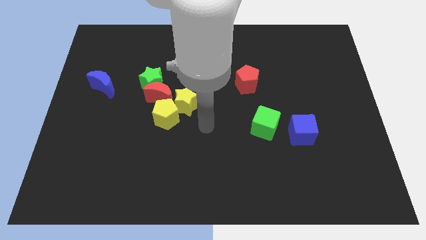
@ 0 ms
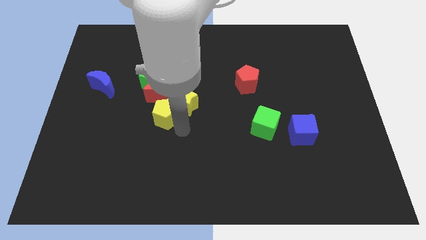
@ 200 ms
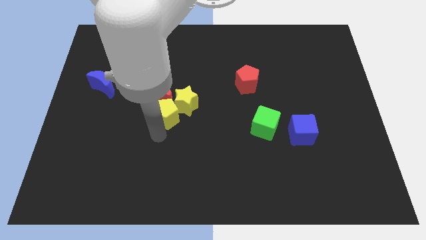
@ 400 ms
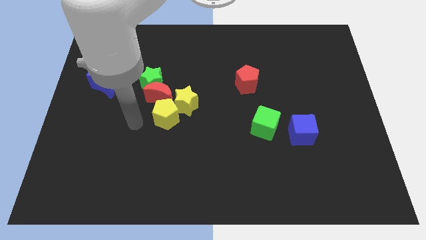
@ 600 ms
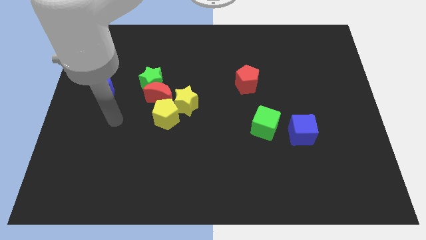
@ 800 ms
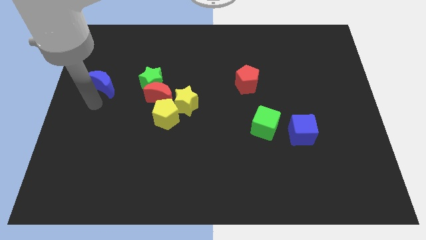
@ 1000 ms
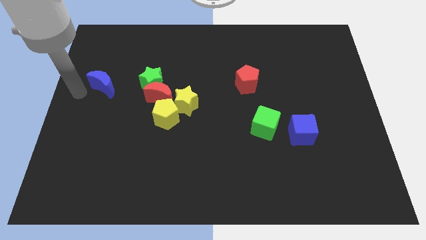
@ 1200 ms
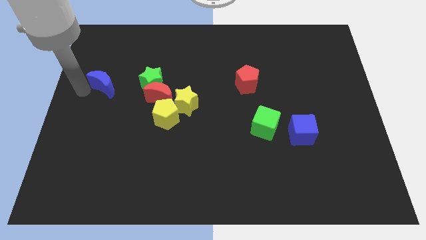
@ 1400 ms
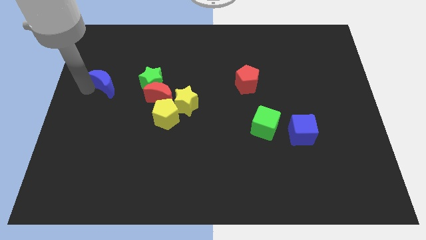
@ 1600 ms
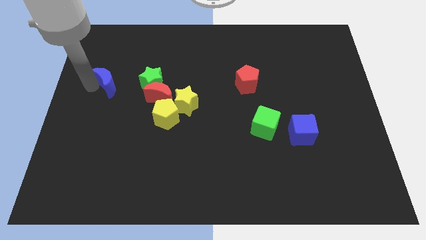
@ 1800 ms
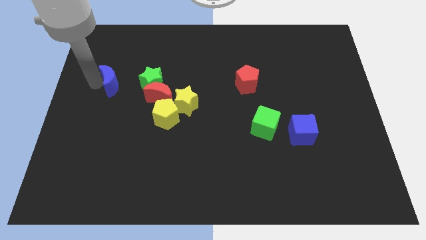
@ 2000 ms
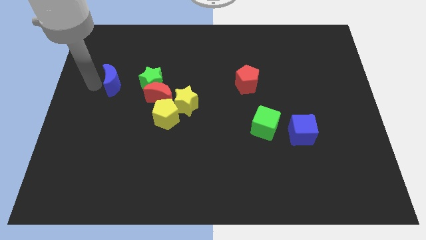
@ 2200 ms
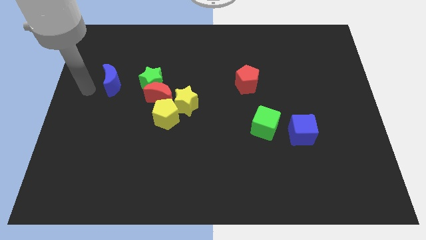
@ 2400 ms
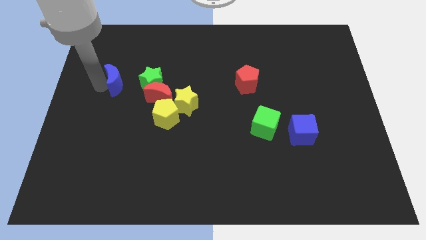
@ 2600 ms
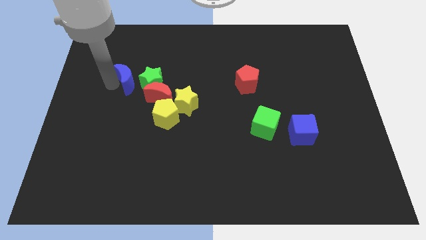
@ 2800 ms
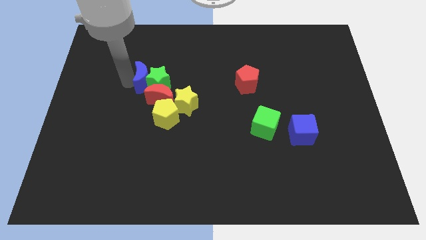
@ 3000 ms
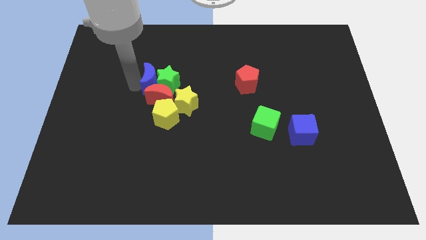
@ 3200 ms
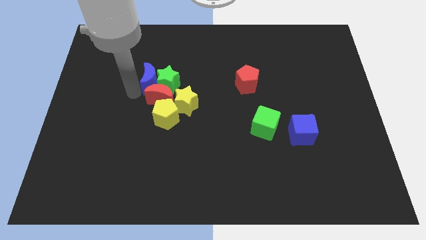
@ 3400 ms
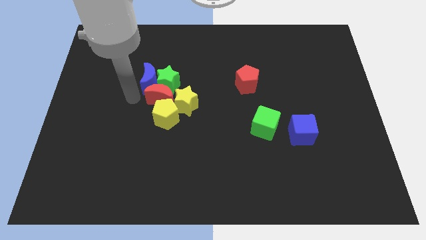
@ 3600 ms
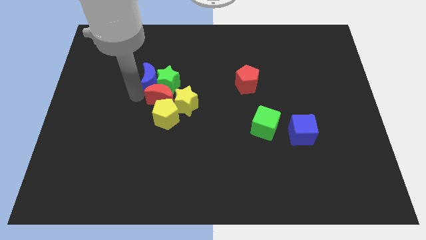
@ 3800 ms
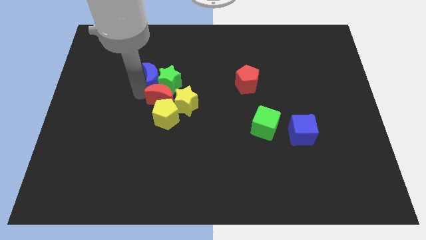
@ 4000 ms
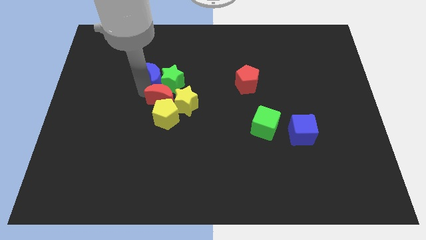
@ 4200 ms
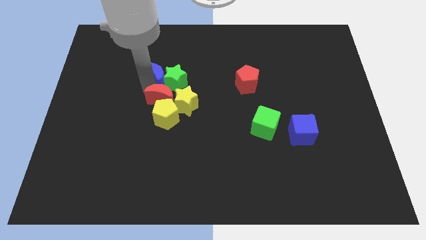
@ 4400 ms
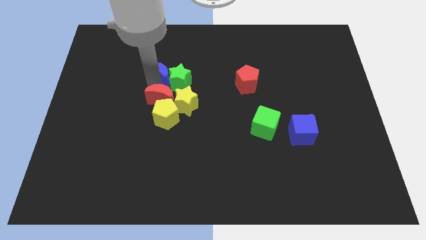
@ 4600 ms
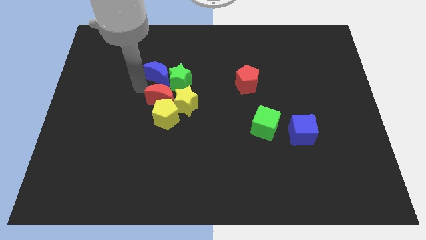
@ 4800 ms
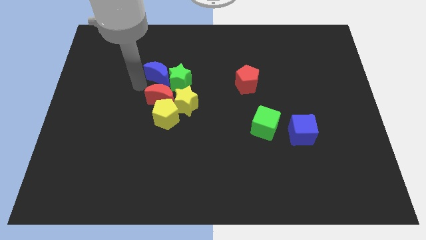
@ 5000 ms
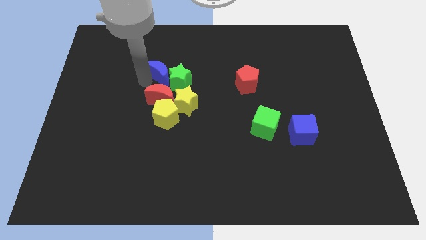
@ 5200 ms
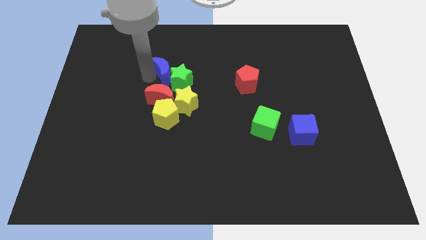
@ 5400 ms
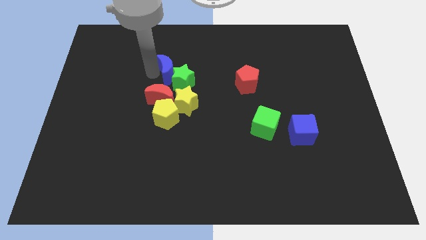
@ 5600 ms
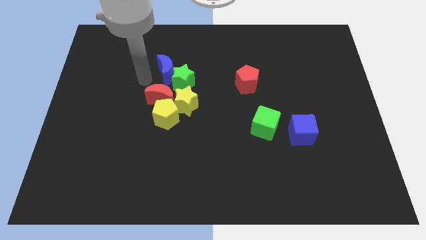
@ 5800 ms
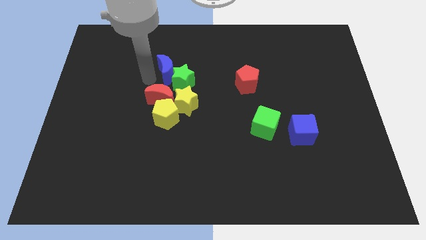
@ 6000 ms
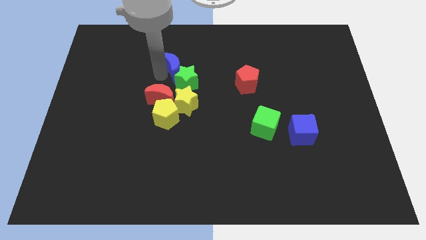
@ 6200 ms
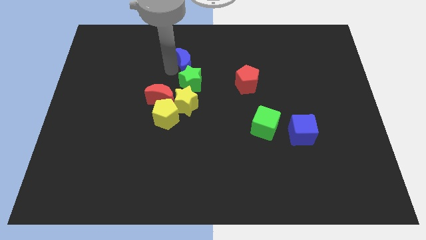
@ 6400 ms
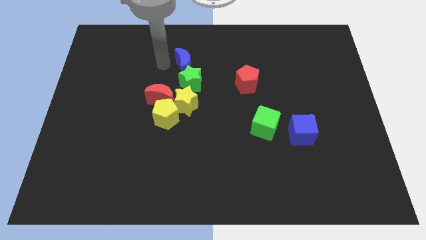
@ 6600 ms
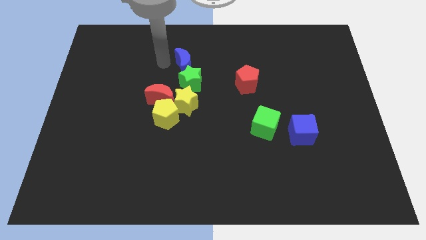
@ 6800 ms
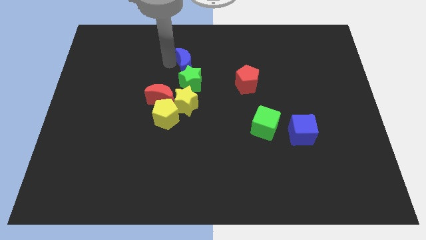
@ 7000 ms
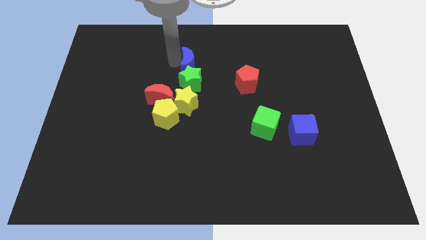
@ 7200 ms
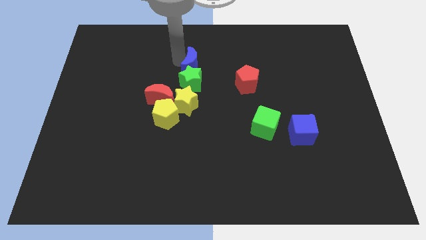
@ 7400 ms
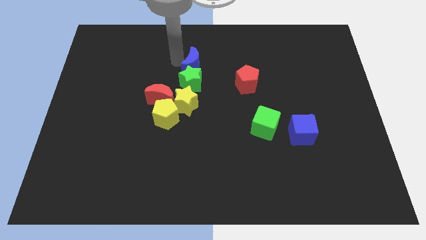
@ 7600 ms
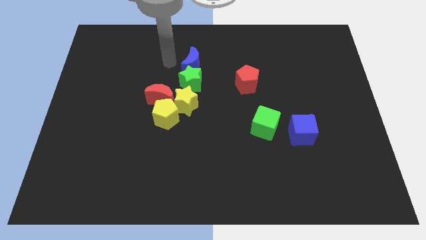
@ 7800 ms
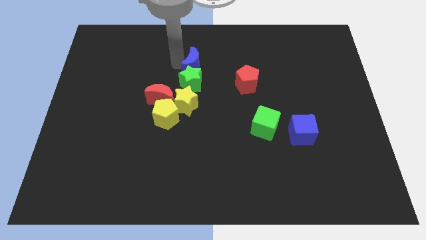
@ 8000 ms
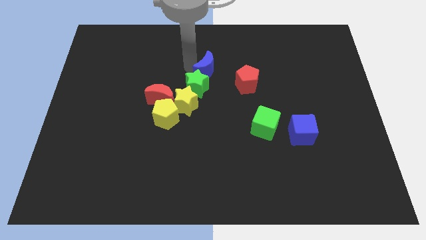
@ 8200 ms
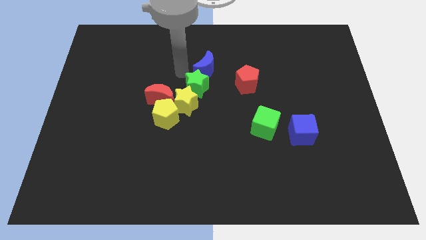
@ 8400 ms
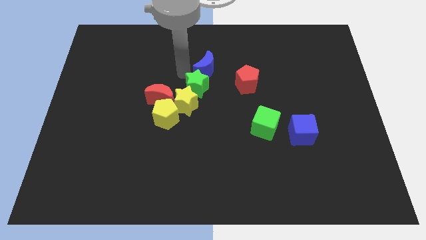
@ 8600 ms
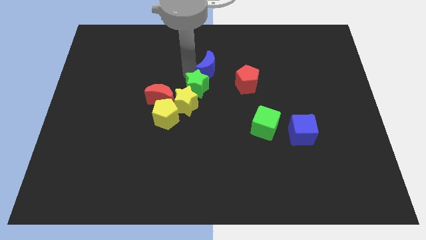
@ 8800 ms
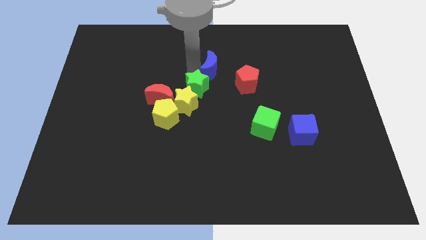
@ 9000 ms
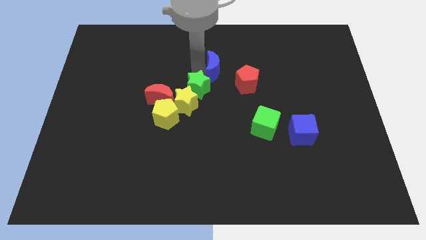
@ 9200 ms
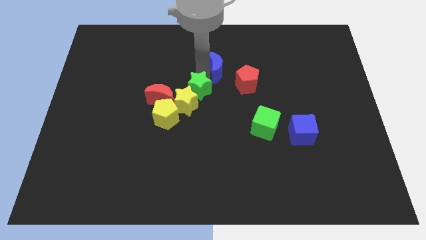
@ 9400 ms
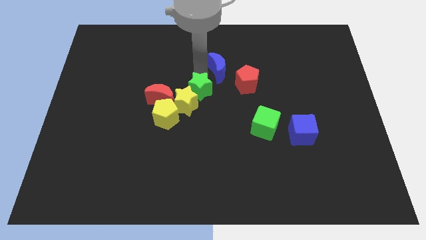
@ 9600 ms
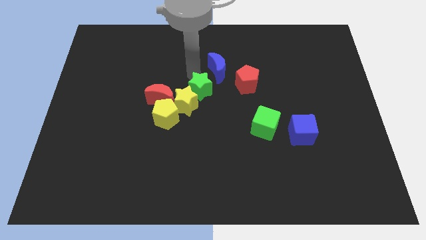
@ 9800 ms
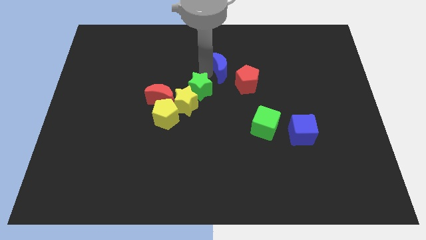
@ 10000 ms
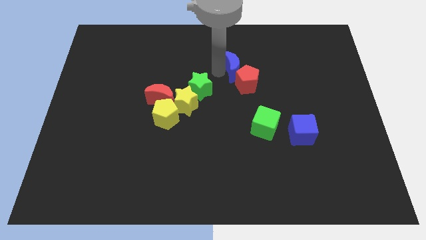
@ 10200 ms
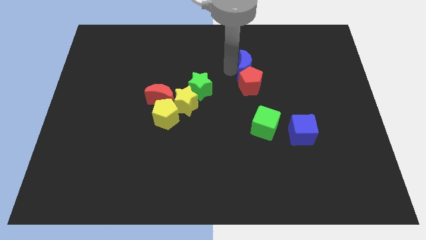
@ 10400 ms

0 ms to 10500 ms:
move the blue moon diagonally up and to the right of the red pentagon

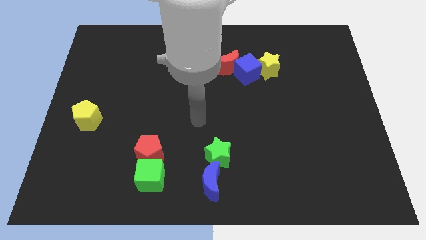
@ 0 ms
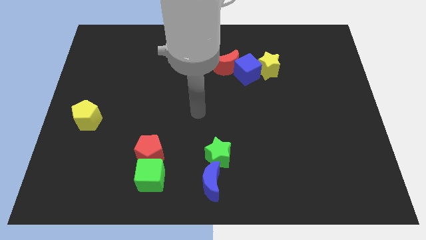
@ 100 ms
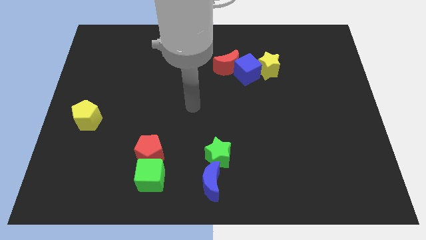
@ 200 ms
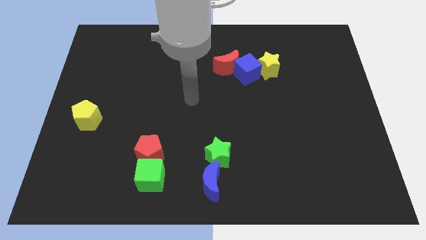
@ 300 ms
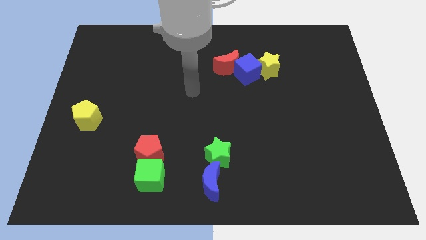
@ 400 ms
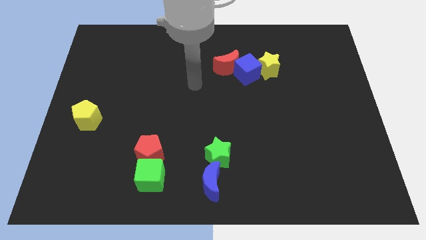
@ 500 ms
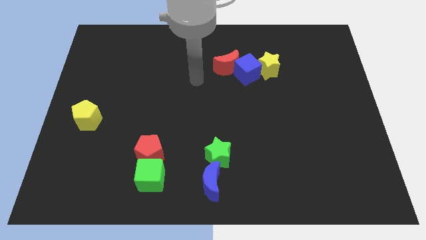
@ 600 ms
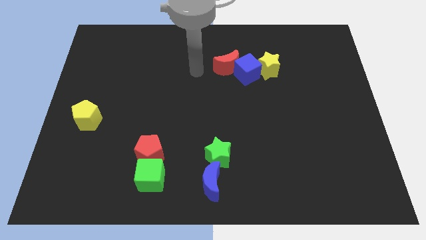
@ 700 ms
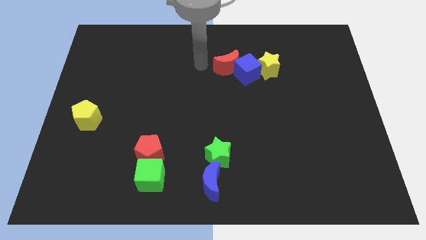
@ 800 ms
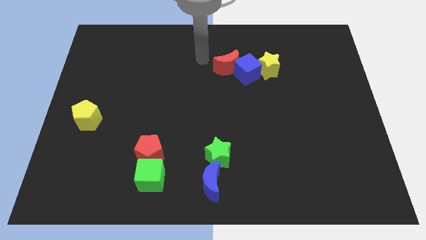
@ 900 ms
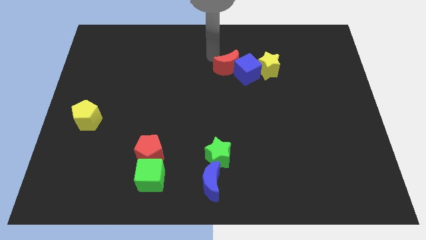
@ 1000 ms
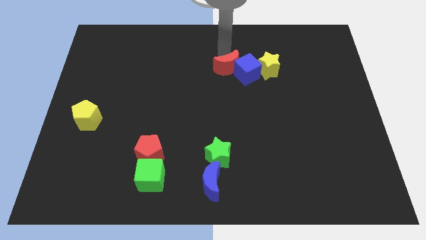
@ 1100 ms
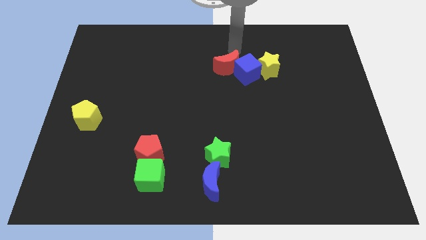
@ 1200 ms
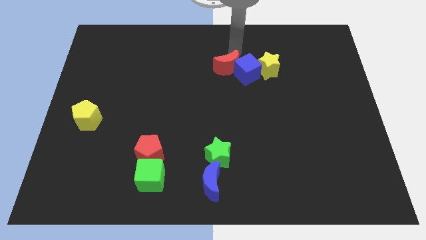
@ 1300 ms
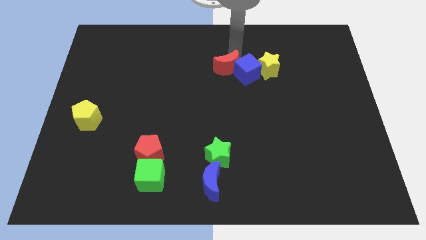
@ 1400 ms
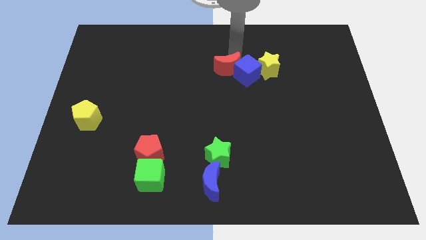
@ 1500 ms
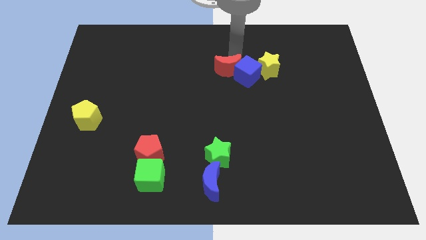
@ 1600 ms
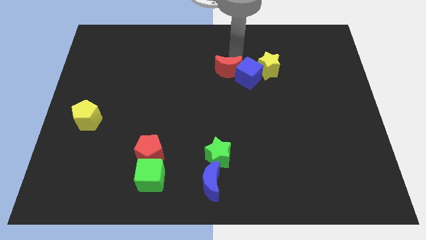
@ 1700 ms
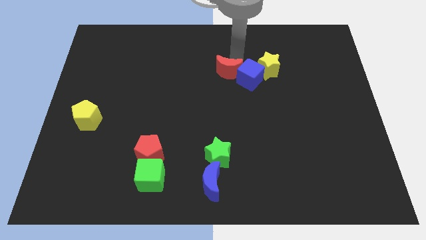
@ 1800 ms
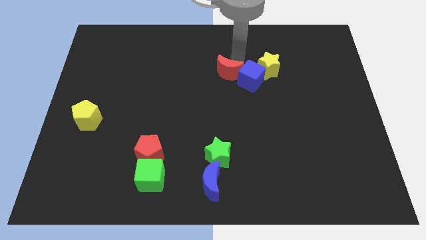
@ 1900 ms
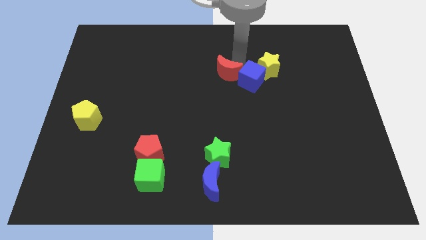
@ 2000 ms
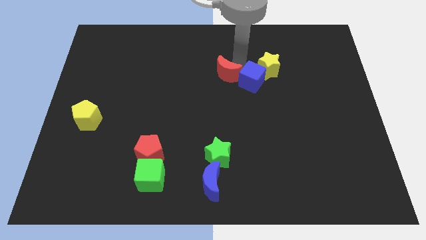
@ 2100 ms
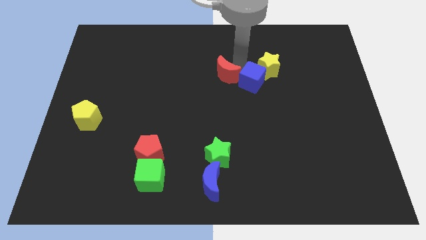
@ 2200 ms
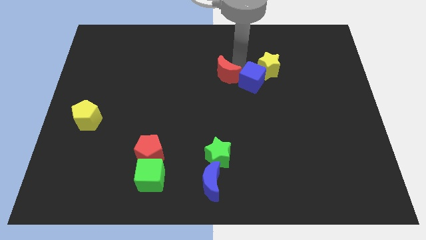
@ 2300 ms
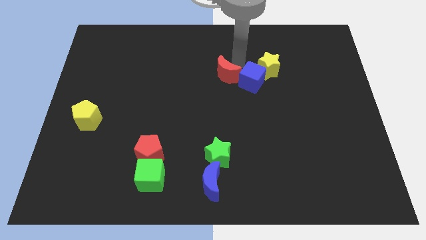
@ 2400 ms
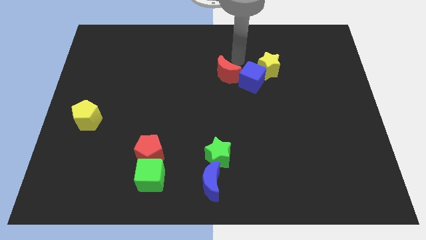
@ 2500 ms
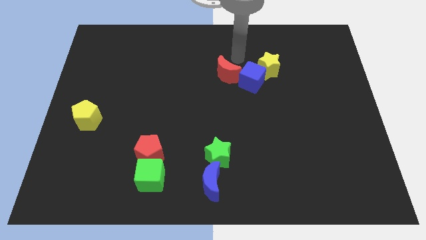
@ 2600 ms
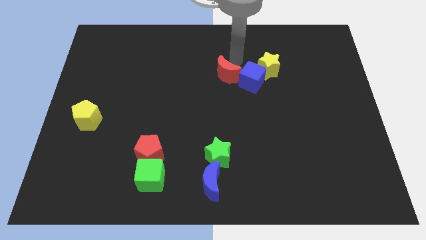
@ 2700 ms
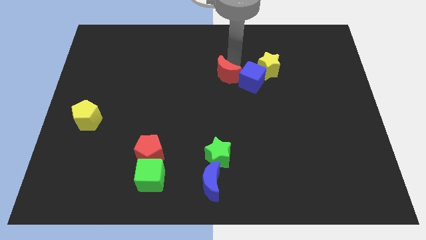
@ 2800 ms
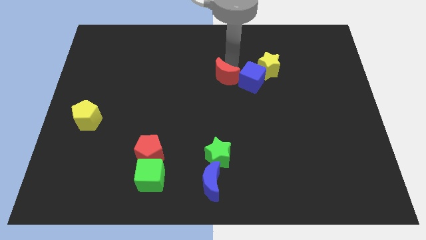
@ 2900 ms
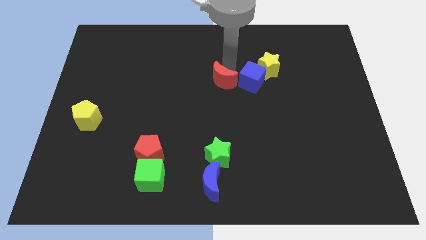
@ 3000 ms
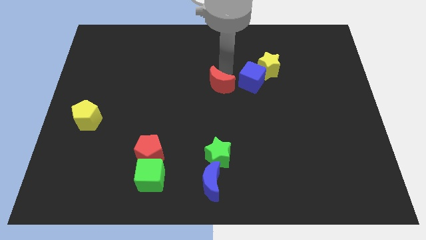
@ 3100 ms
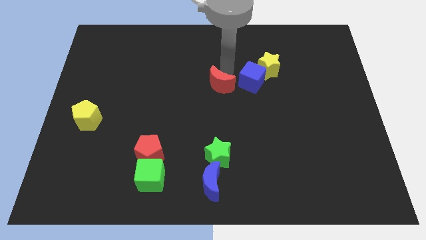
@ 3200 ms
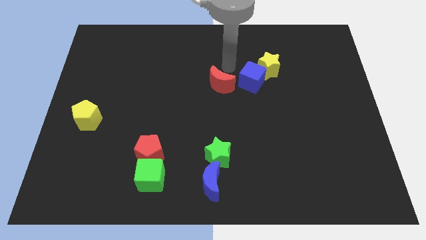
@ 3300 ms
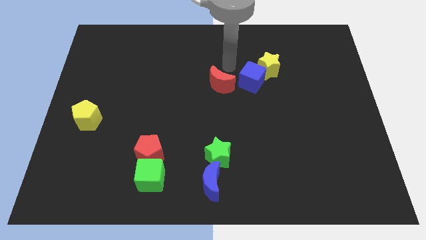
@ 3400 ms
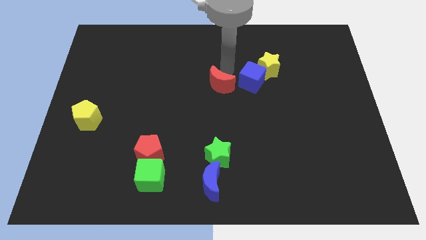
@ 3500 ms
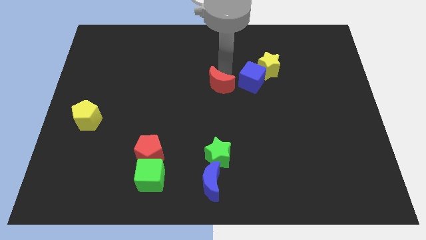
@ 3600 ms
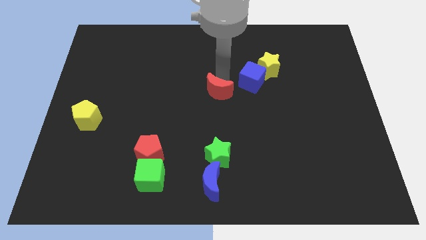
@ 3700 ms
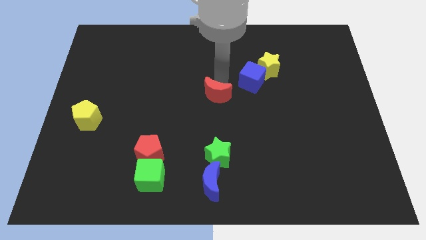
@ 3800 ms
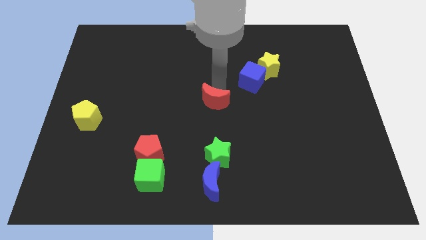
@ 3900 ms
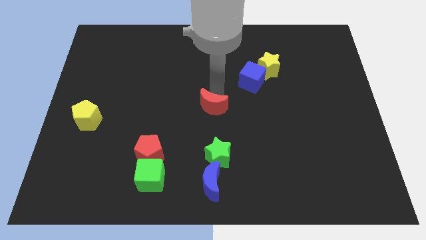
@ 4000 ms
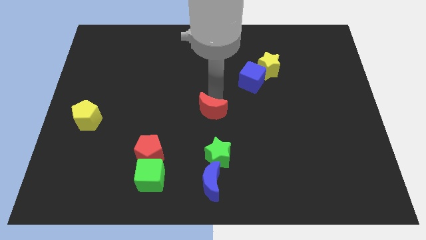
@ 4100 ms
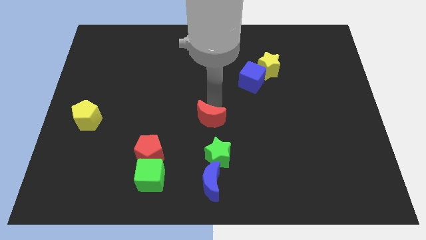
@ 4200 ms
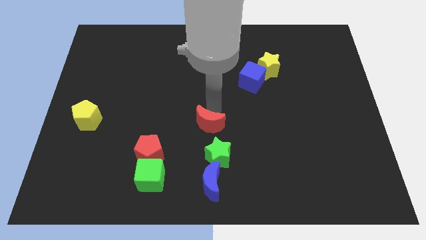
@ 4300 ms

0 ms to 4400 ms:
move the red moon diagonally up and to the left of the green star
